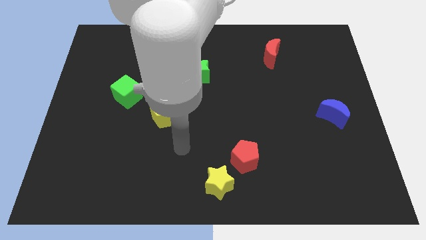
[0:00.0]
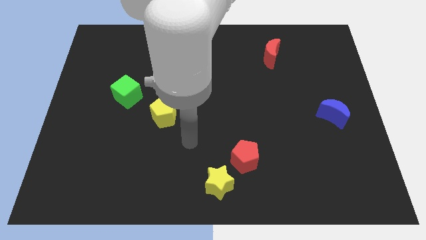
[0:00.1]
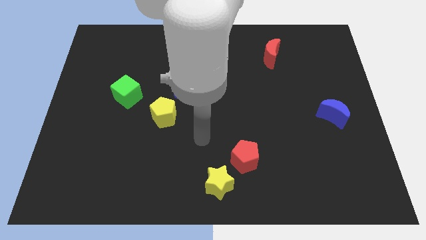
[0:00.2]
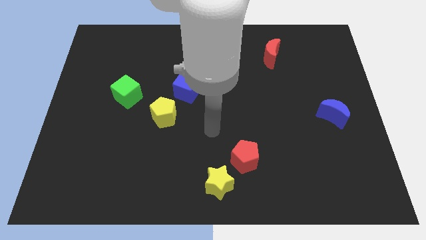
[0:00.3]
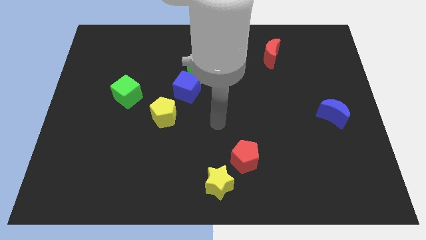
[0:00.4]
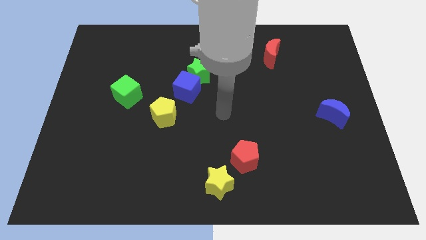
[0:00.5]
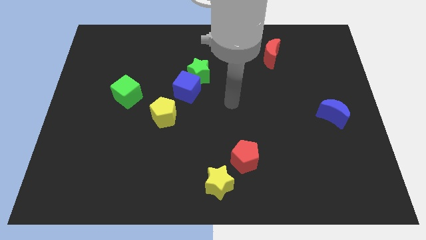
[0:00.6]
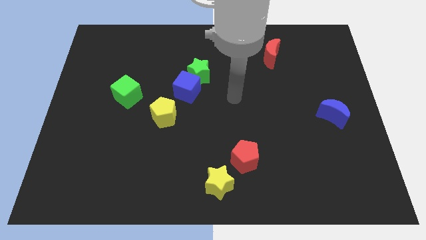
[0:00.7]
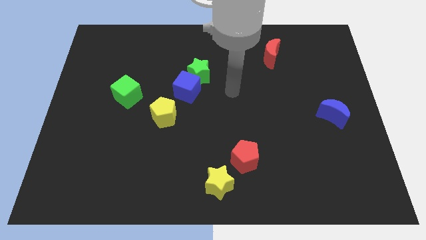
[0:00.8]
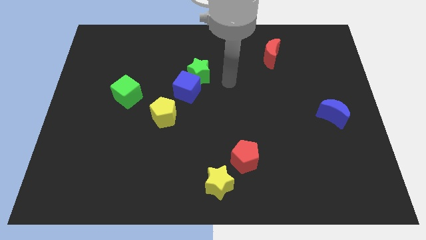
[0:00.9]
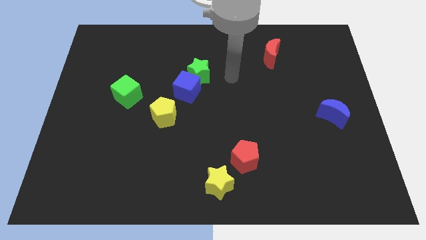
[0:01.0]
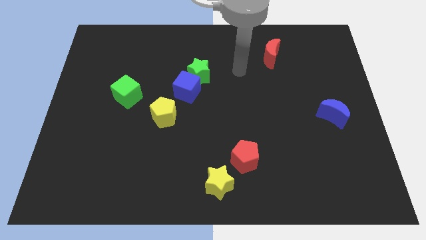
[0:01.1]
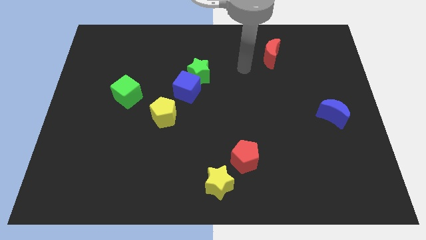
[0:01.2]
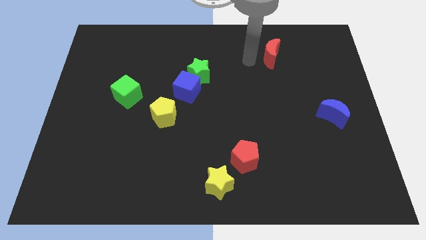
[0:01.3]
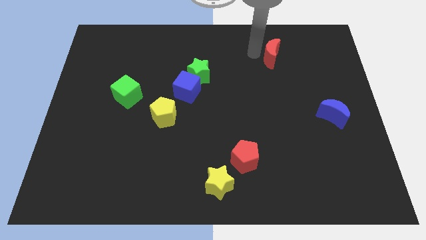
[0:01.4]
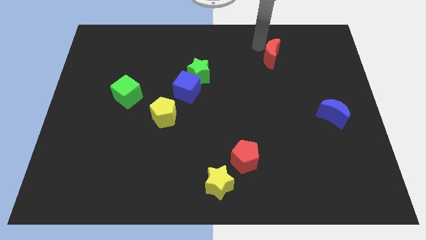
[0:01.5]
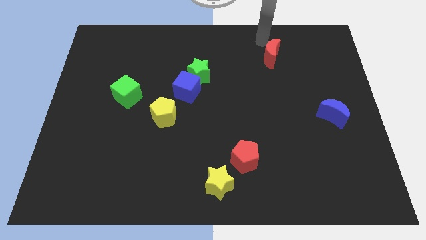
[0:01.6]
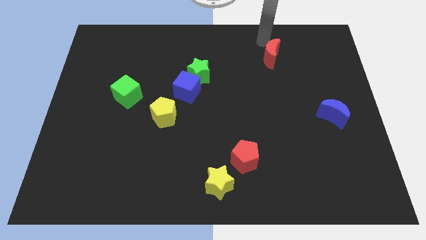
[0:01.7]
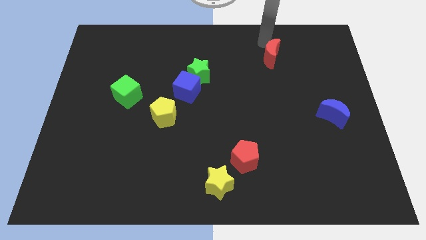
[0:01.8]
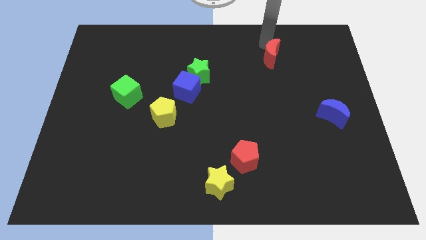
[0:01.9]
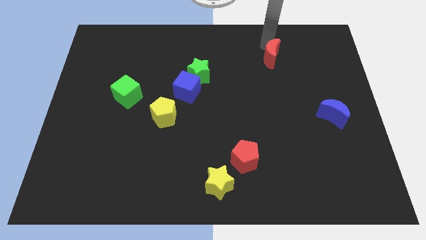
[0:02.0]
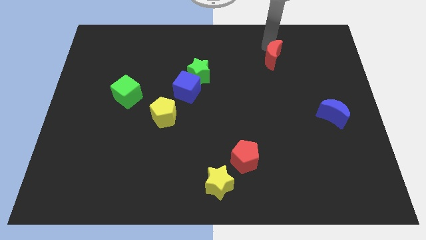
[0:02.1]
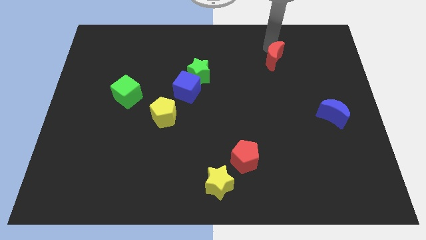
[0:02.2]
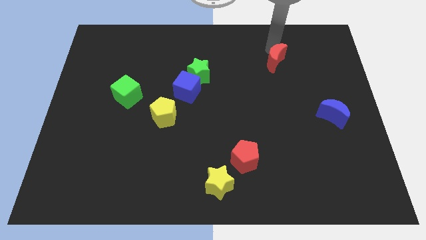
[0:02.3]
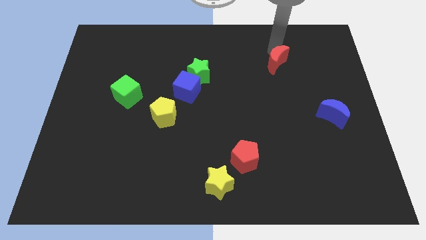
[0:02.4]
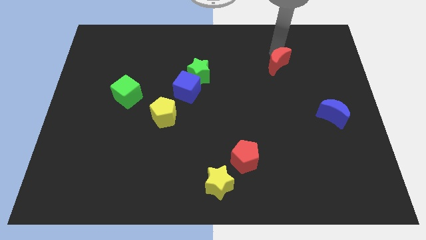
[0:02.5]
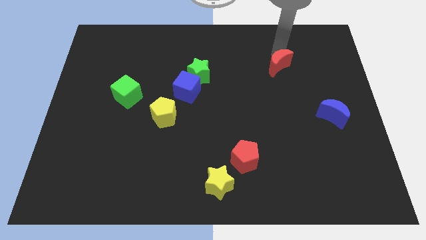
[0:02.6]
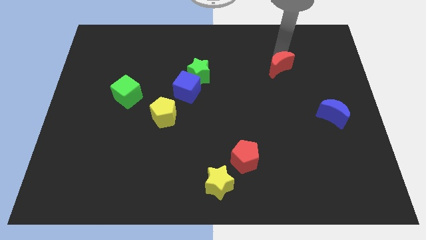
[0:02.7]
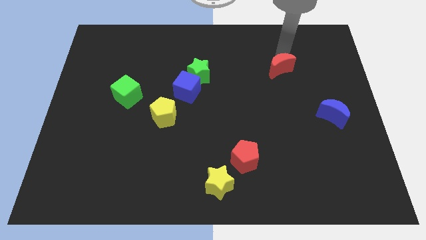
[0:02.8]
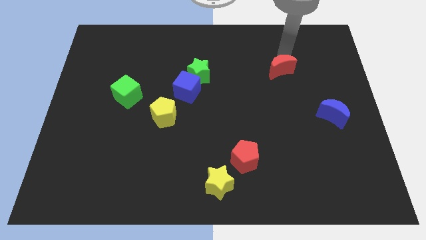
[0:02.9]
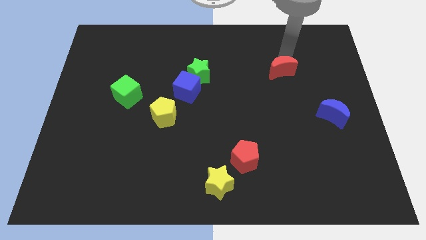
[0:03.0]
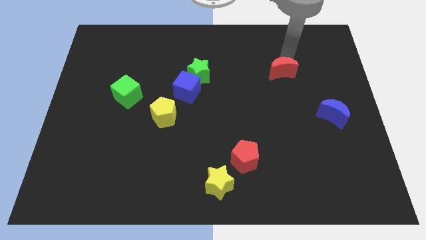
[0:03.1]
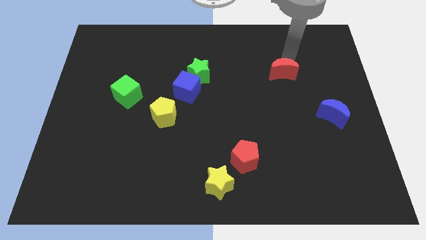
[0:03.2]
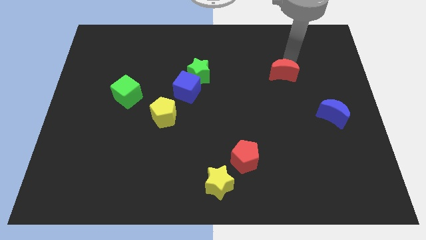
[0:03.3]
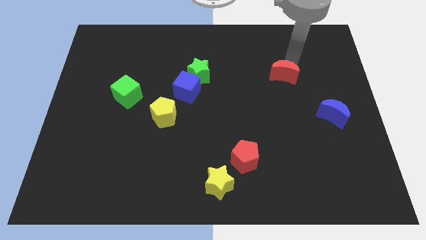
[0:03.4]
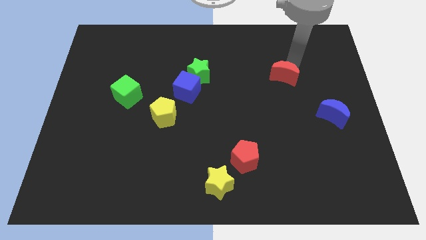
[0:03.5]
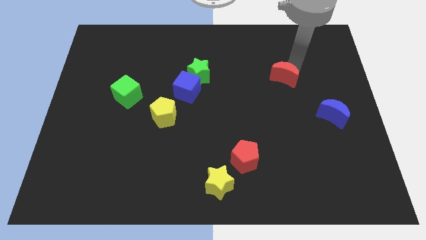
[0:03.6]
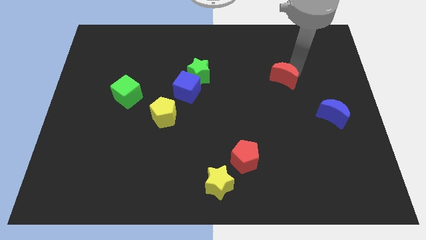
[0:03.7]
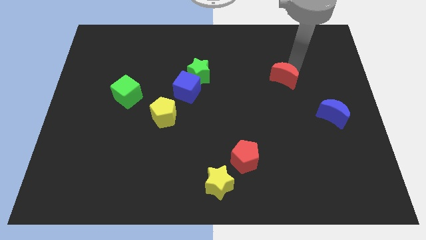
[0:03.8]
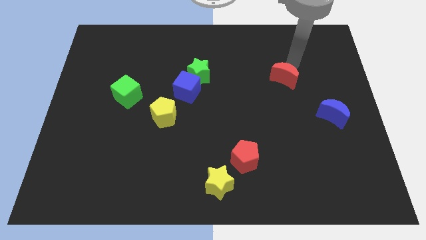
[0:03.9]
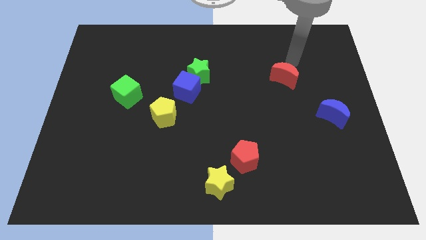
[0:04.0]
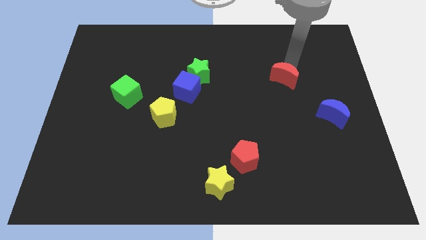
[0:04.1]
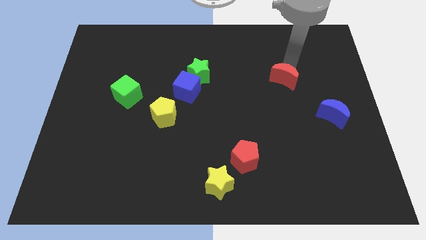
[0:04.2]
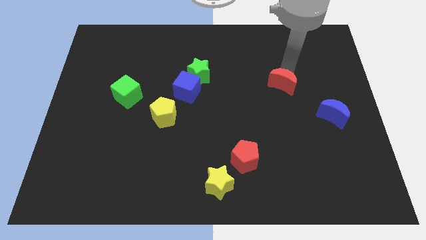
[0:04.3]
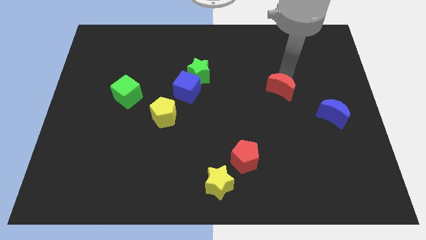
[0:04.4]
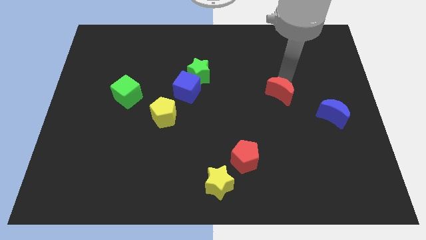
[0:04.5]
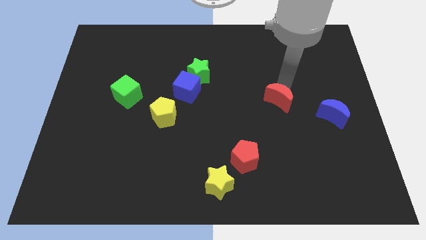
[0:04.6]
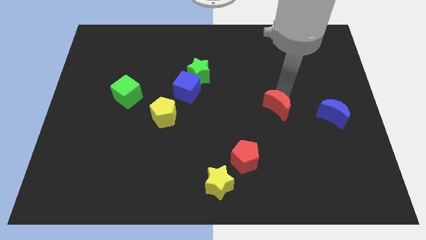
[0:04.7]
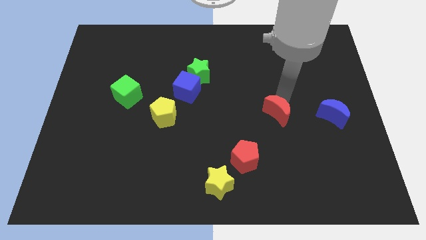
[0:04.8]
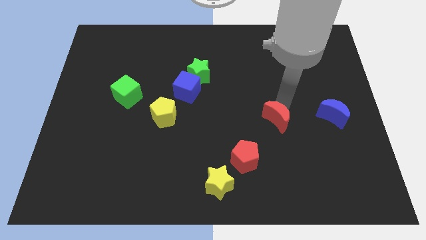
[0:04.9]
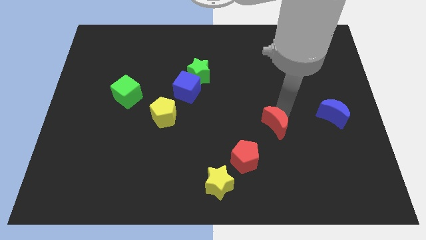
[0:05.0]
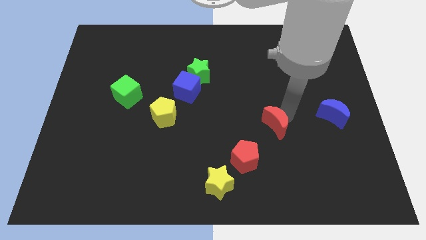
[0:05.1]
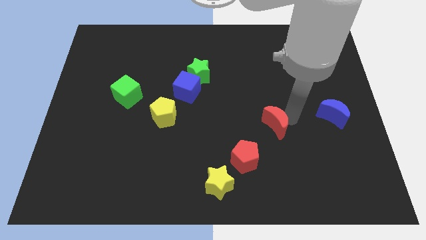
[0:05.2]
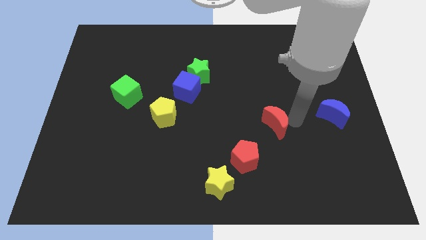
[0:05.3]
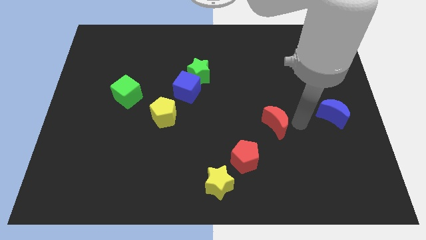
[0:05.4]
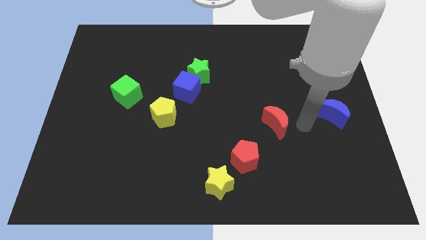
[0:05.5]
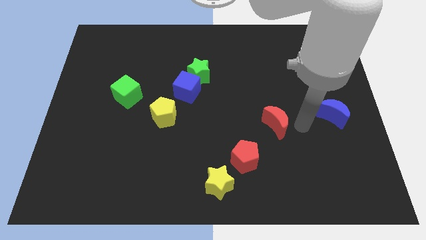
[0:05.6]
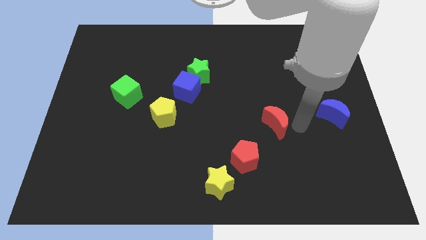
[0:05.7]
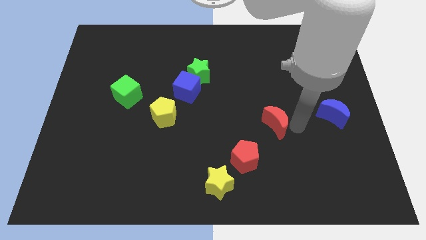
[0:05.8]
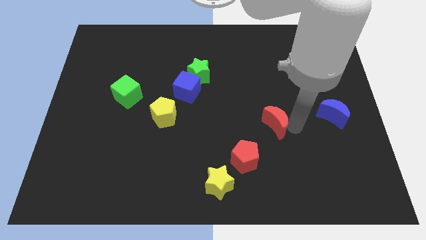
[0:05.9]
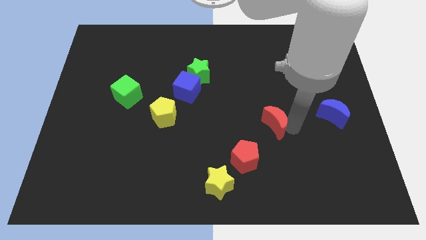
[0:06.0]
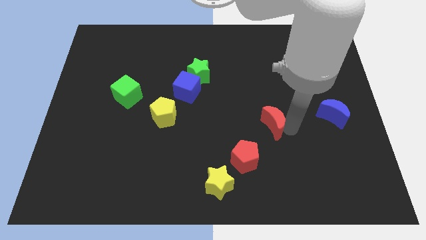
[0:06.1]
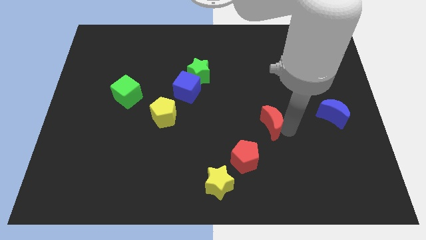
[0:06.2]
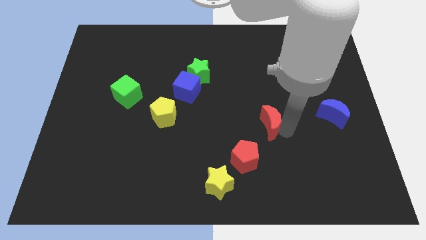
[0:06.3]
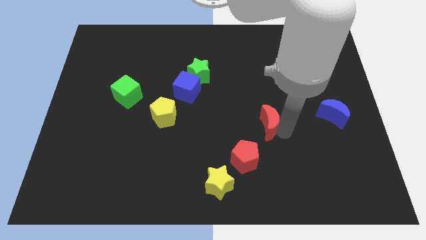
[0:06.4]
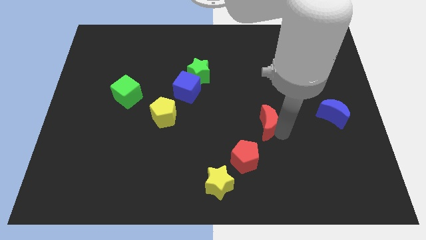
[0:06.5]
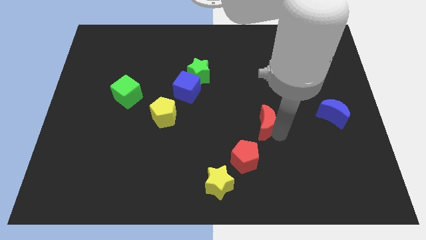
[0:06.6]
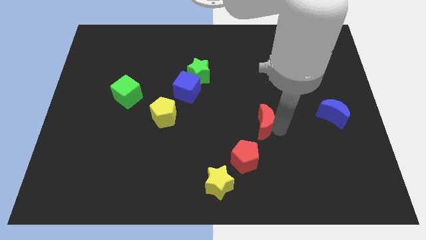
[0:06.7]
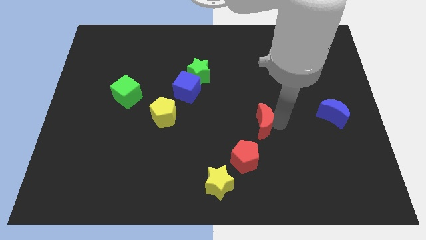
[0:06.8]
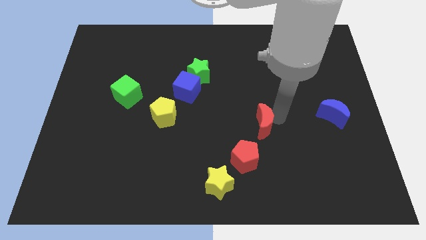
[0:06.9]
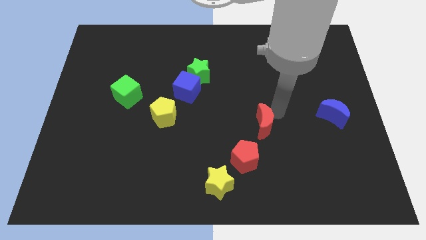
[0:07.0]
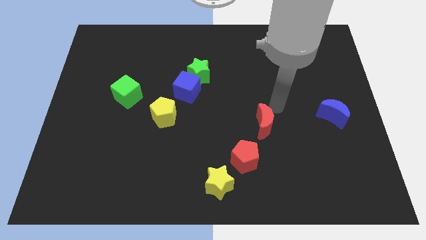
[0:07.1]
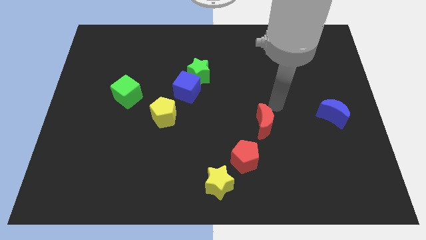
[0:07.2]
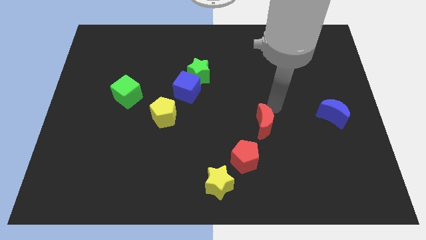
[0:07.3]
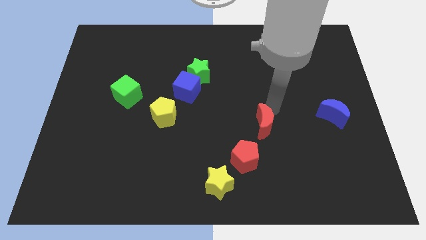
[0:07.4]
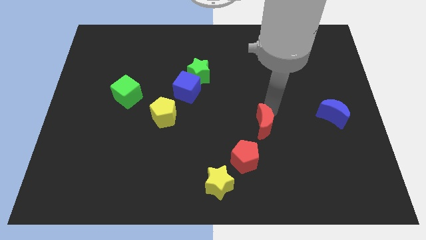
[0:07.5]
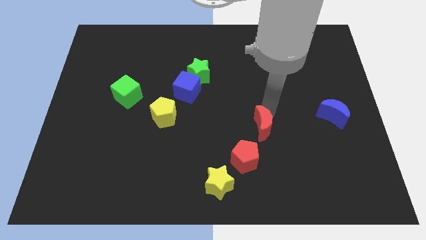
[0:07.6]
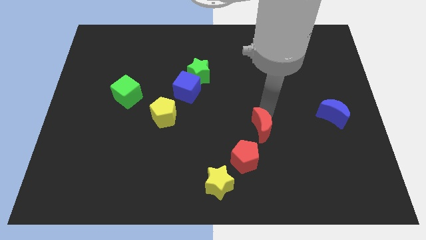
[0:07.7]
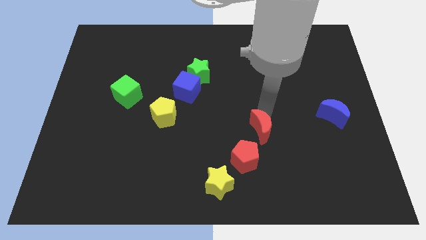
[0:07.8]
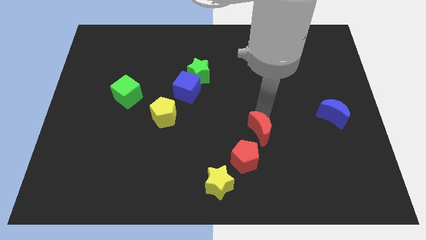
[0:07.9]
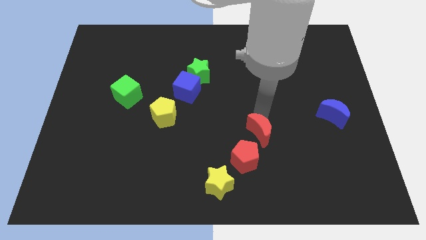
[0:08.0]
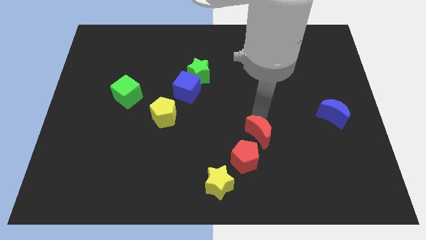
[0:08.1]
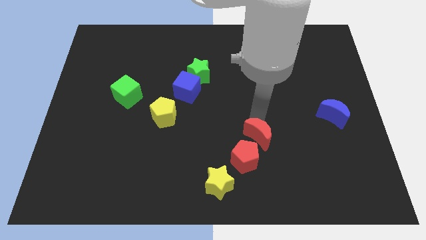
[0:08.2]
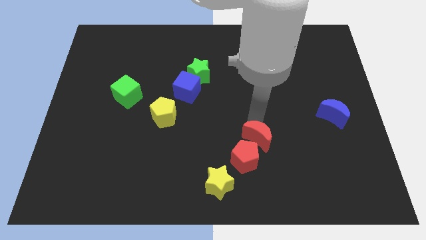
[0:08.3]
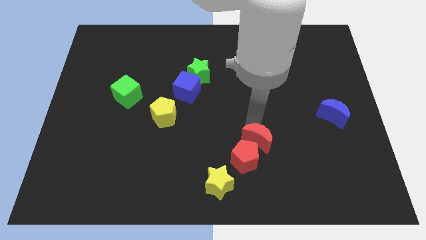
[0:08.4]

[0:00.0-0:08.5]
put the red moon close to the red pentagon
